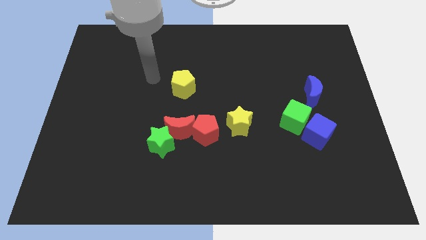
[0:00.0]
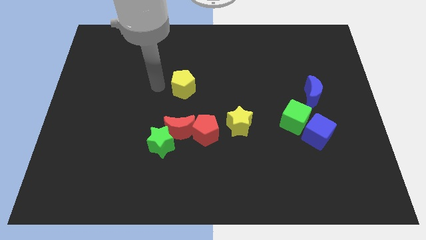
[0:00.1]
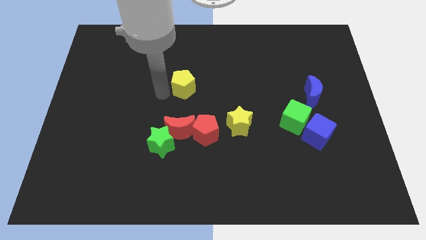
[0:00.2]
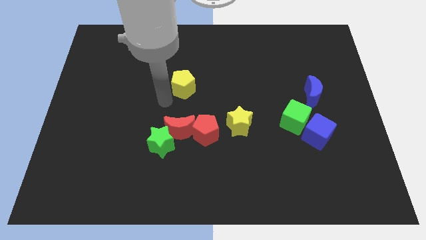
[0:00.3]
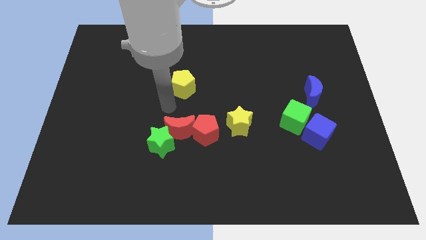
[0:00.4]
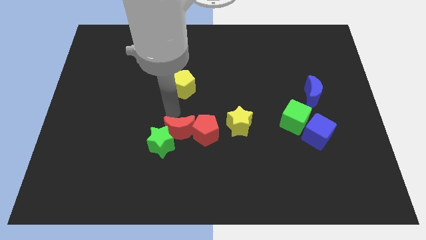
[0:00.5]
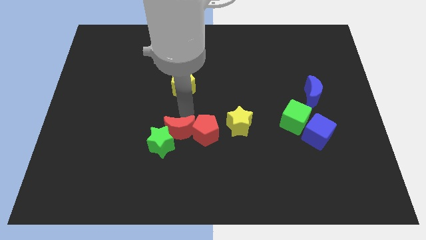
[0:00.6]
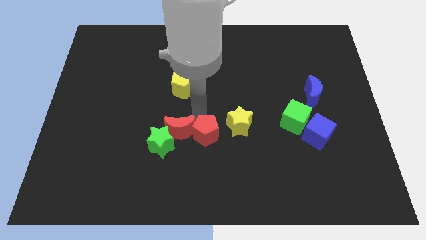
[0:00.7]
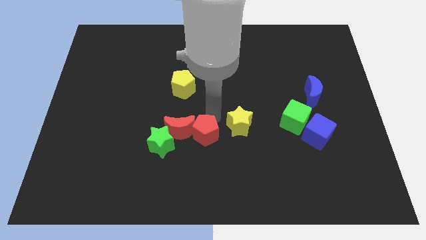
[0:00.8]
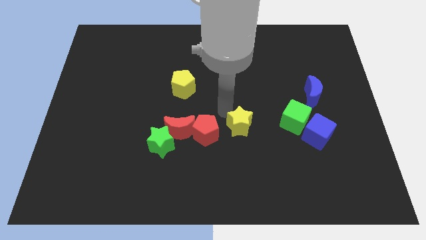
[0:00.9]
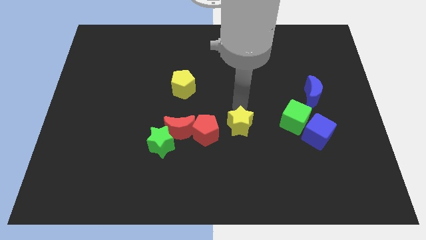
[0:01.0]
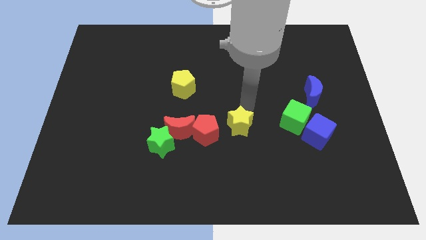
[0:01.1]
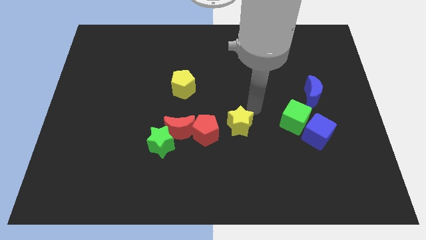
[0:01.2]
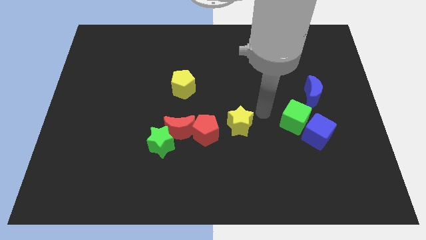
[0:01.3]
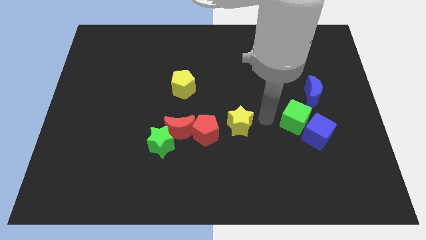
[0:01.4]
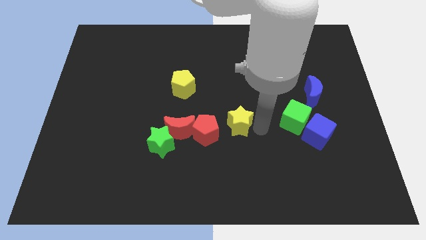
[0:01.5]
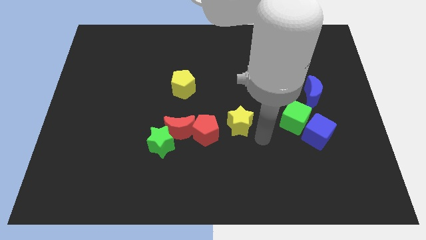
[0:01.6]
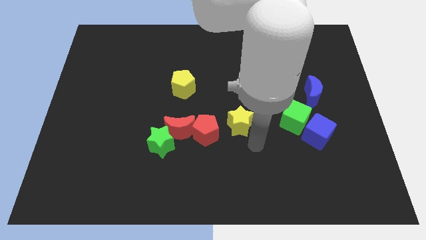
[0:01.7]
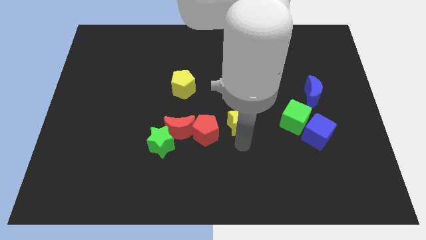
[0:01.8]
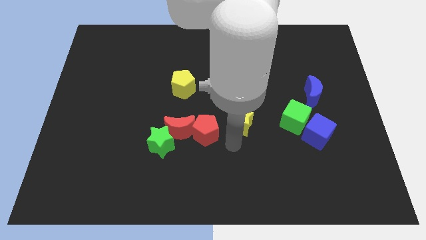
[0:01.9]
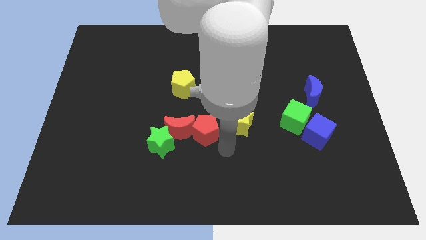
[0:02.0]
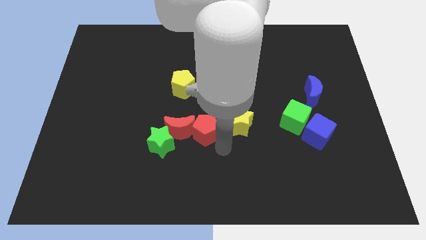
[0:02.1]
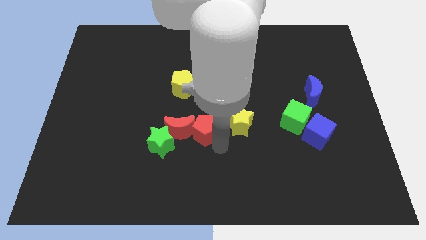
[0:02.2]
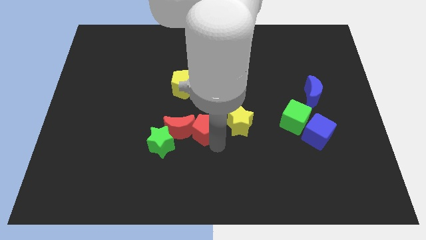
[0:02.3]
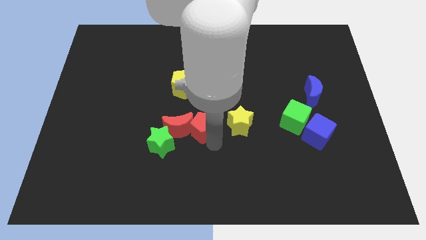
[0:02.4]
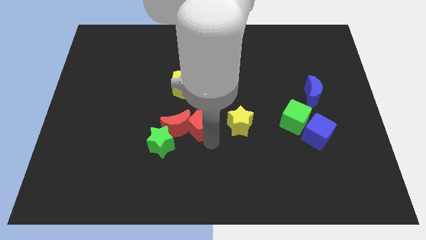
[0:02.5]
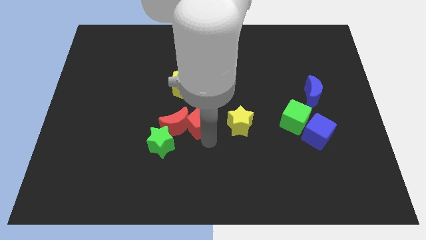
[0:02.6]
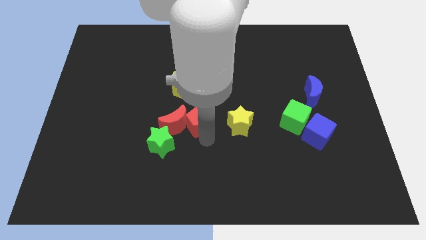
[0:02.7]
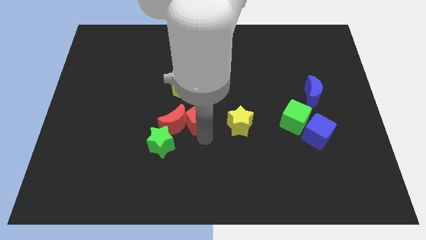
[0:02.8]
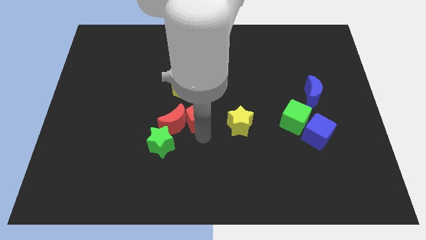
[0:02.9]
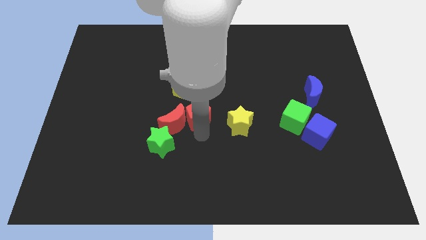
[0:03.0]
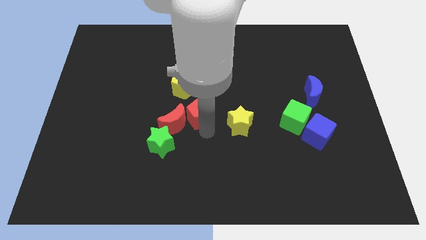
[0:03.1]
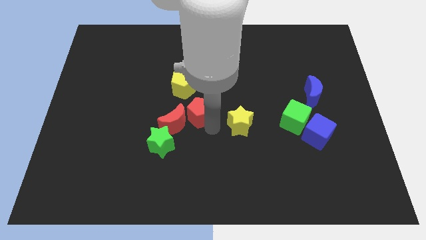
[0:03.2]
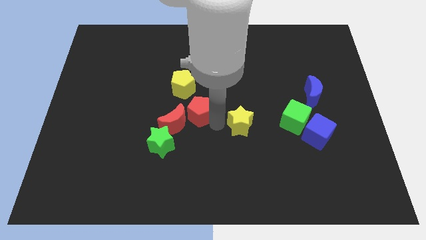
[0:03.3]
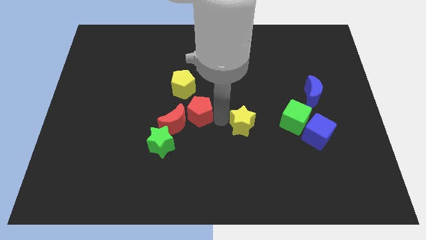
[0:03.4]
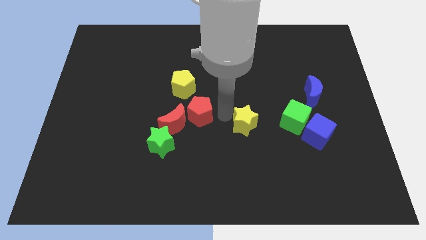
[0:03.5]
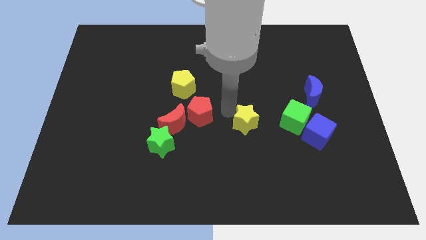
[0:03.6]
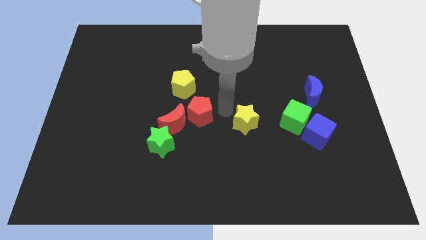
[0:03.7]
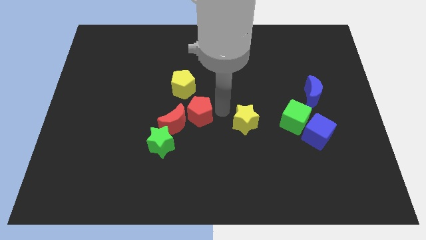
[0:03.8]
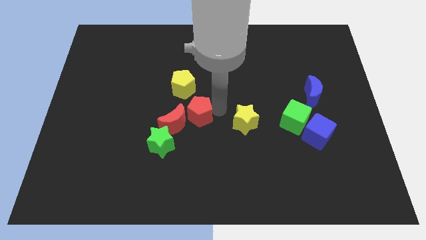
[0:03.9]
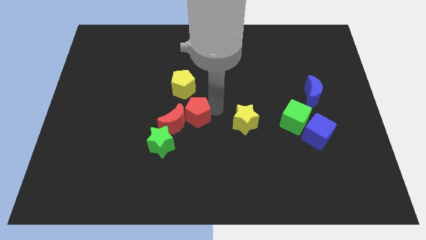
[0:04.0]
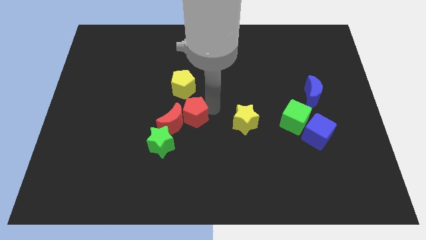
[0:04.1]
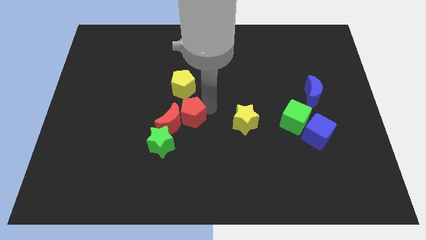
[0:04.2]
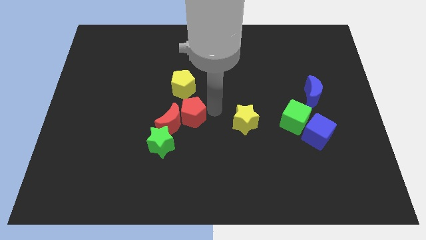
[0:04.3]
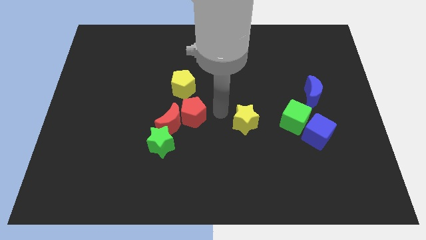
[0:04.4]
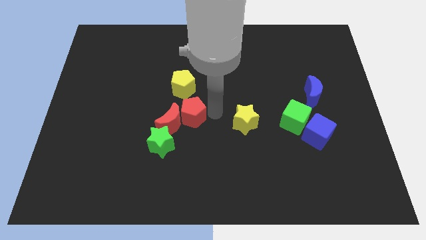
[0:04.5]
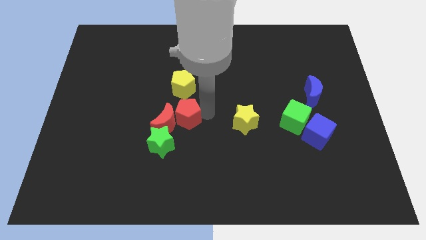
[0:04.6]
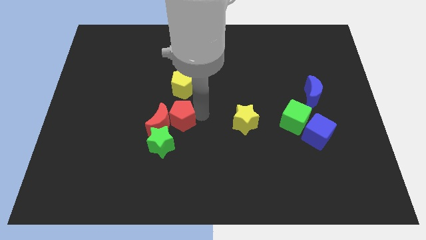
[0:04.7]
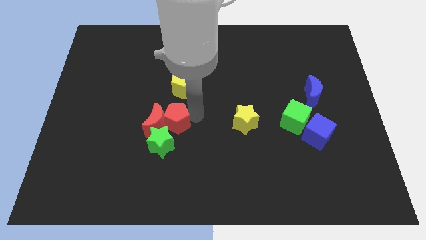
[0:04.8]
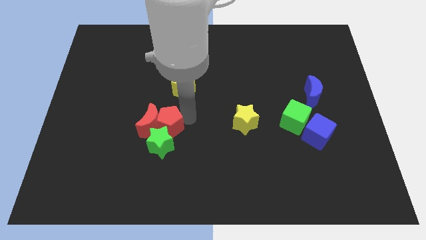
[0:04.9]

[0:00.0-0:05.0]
push the red pentagon to the left a little bit

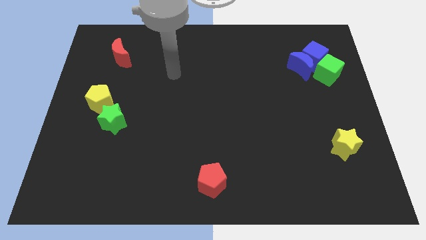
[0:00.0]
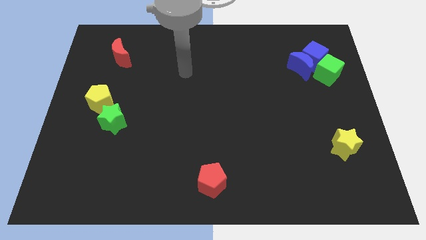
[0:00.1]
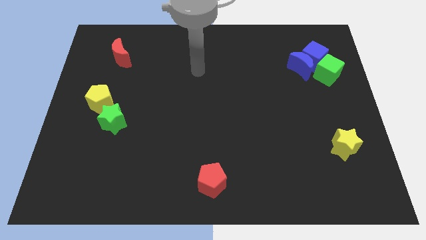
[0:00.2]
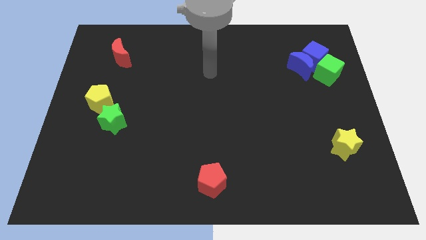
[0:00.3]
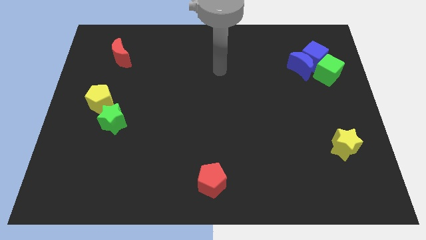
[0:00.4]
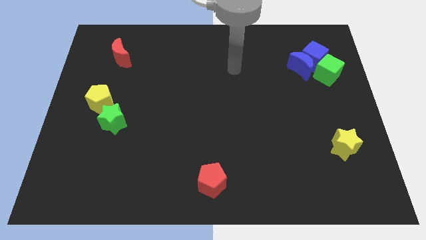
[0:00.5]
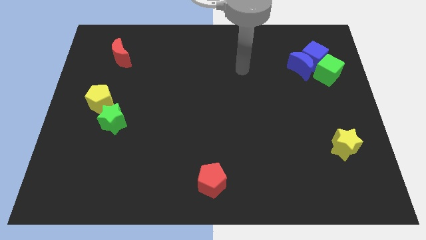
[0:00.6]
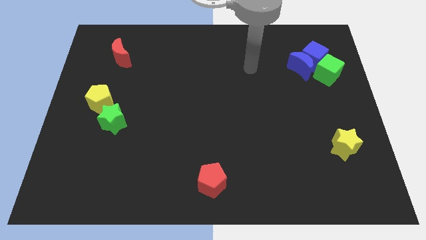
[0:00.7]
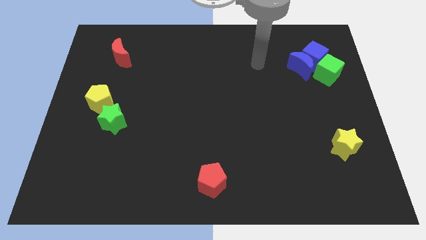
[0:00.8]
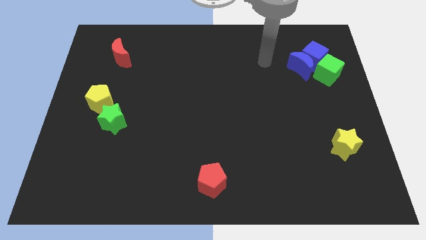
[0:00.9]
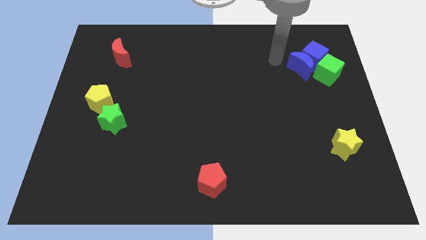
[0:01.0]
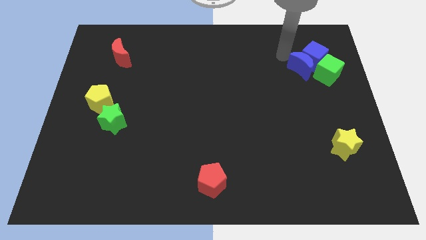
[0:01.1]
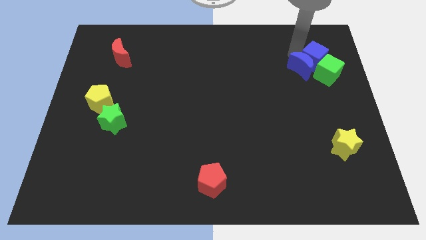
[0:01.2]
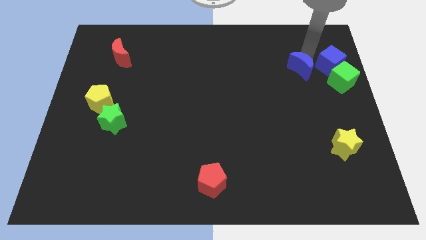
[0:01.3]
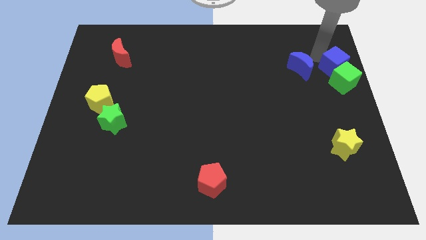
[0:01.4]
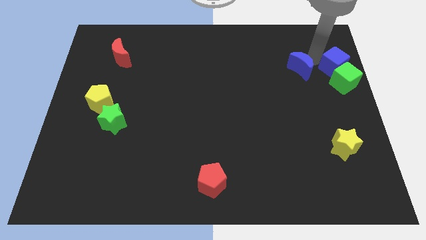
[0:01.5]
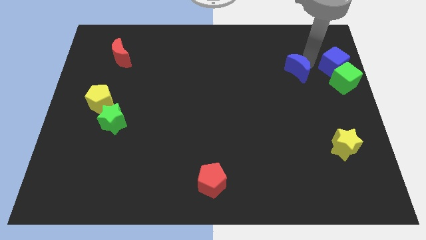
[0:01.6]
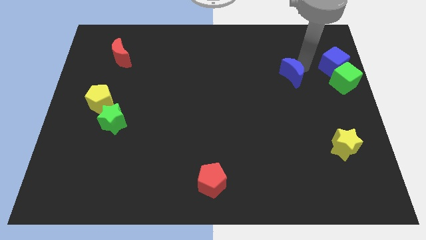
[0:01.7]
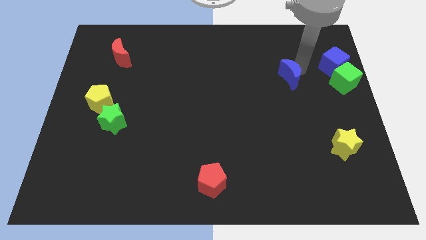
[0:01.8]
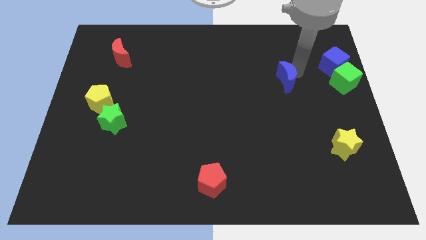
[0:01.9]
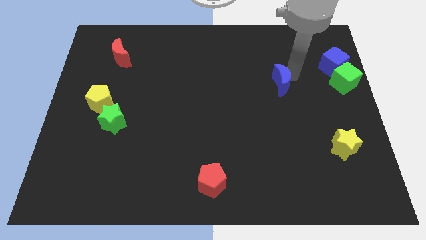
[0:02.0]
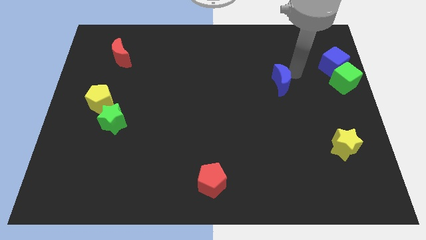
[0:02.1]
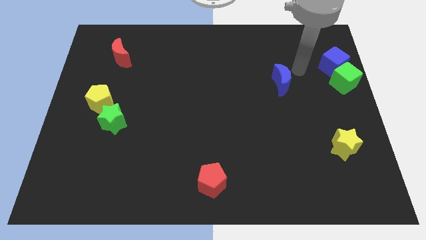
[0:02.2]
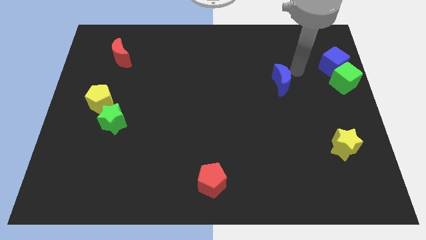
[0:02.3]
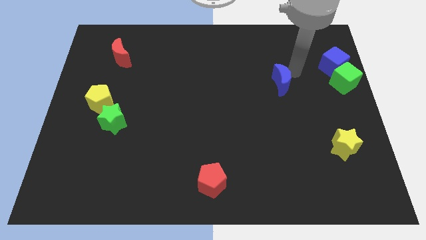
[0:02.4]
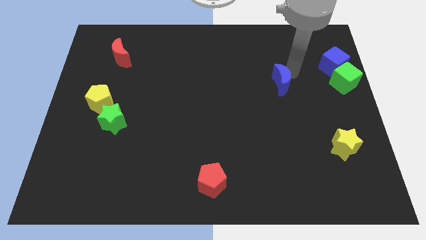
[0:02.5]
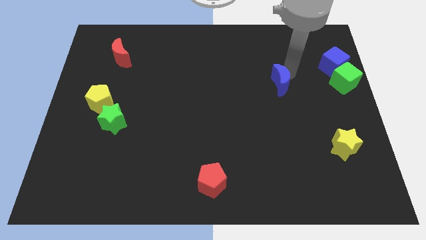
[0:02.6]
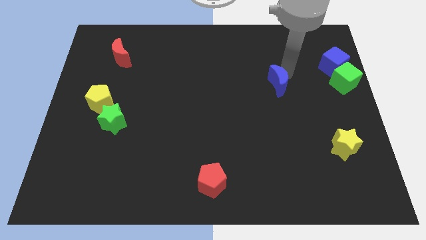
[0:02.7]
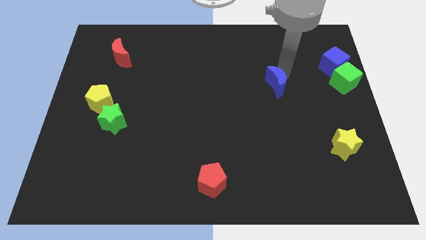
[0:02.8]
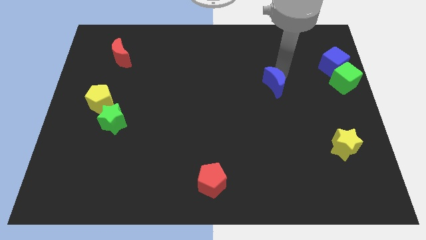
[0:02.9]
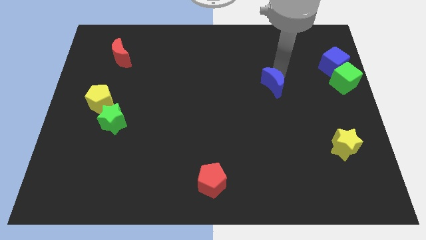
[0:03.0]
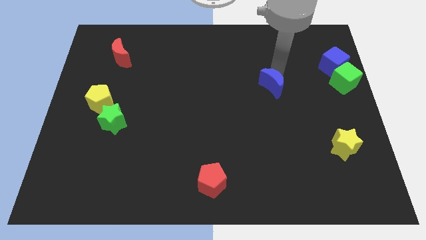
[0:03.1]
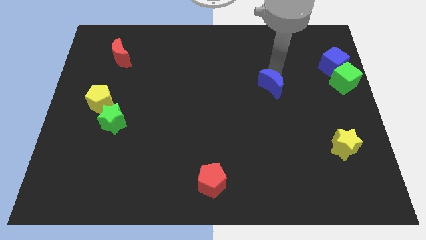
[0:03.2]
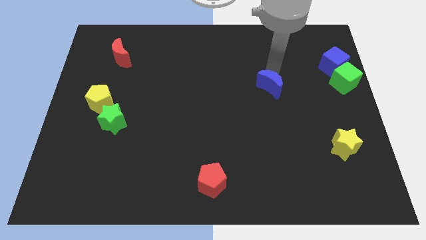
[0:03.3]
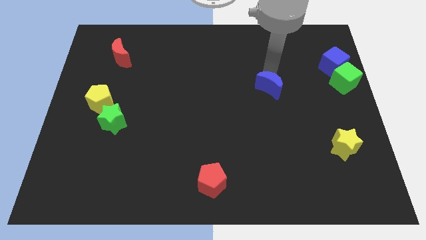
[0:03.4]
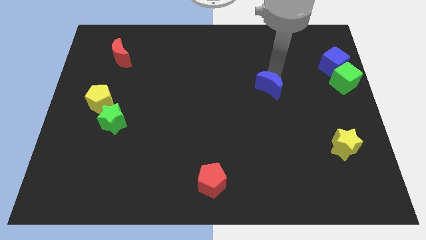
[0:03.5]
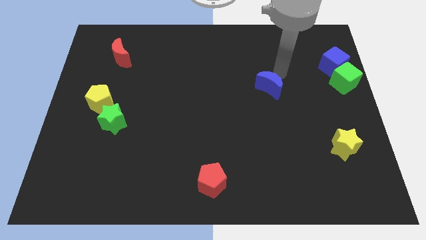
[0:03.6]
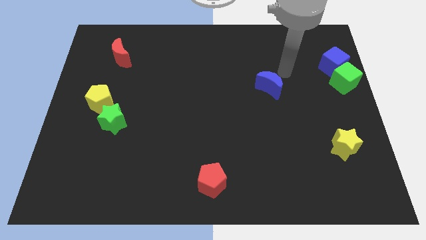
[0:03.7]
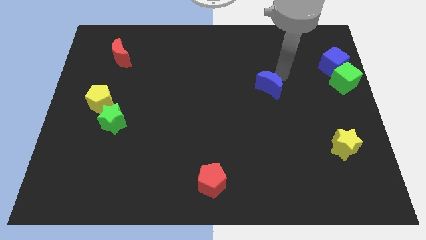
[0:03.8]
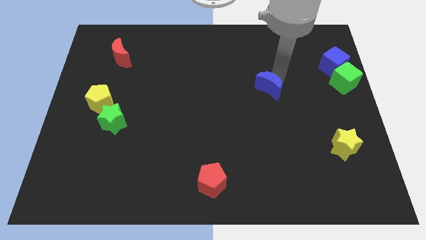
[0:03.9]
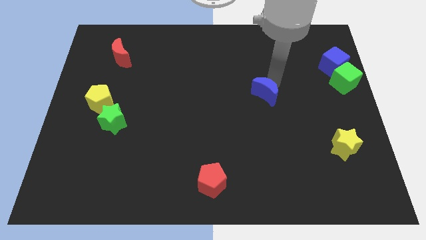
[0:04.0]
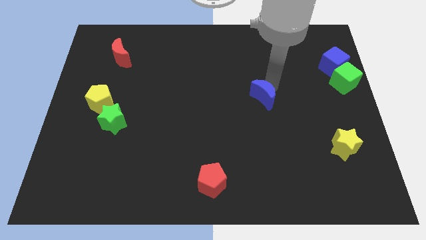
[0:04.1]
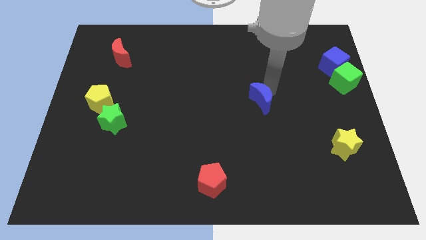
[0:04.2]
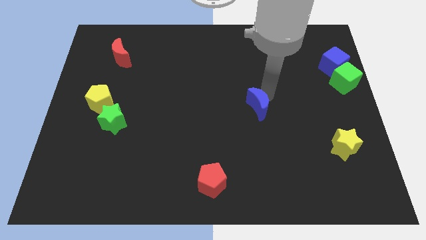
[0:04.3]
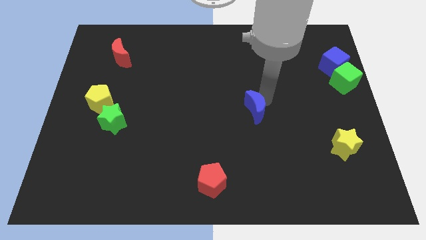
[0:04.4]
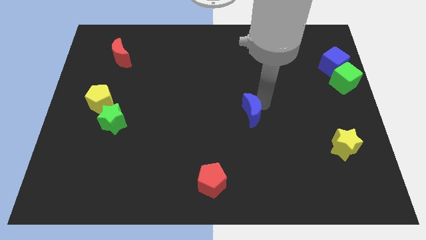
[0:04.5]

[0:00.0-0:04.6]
push the blue moon down and left
